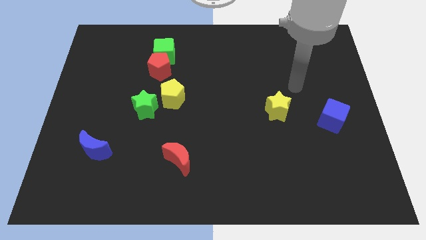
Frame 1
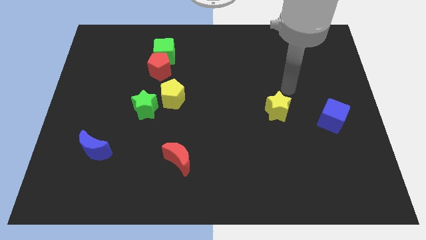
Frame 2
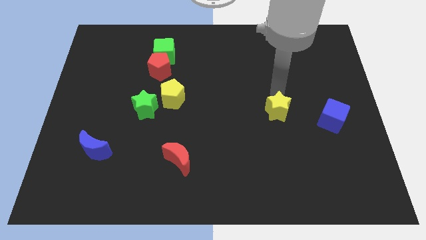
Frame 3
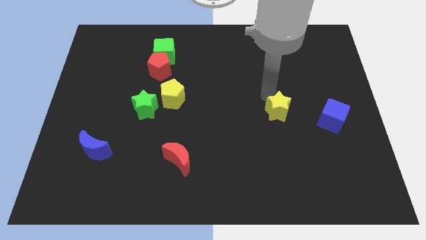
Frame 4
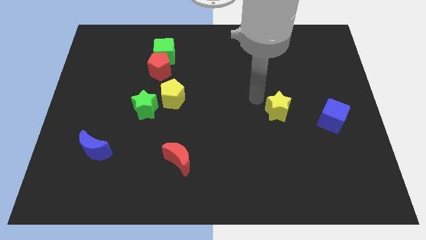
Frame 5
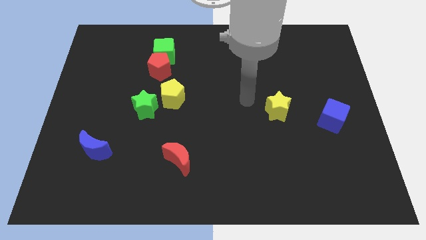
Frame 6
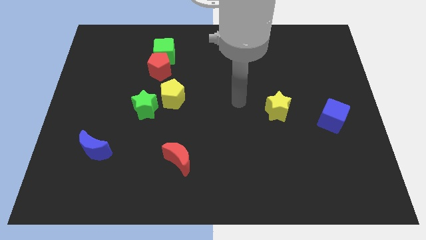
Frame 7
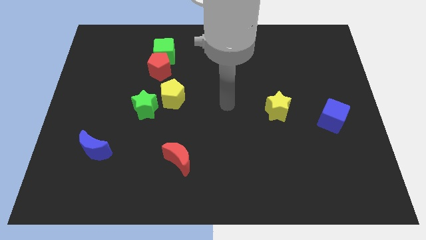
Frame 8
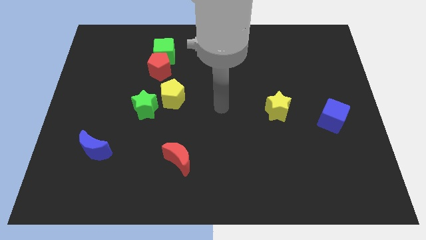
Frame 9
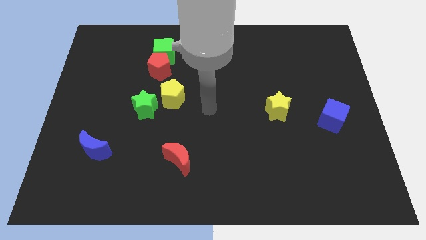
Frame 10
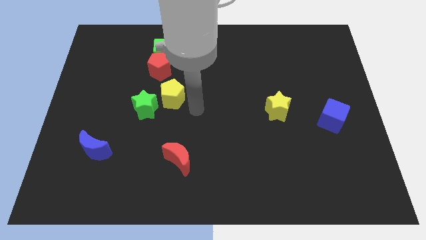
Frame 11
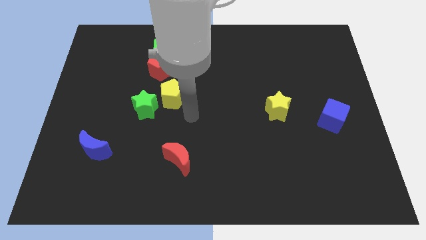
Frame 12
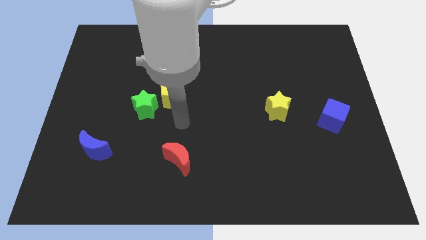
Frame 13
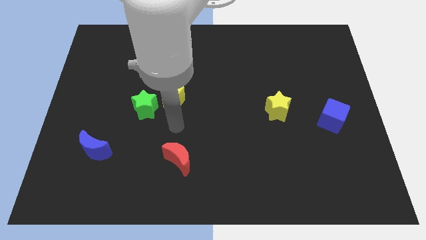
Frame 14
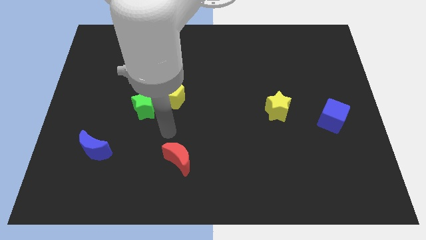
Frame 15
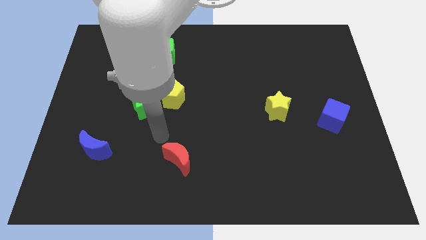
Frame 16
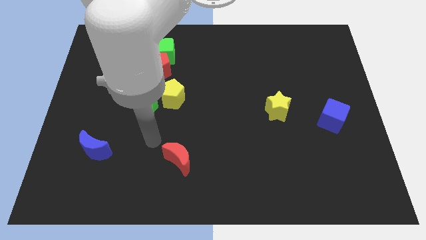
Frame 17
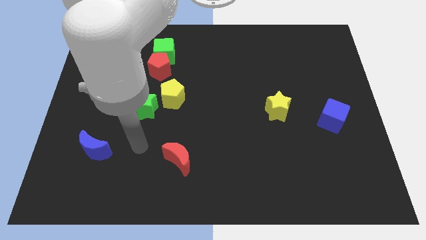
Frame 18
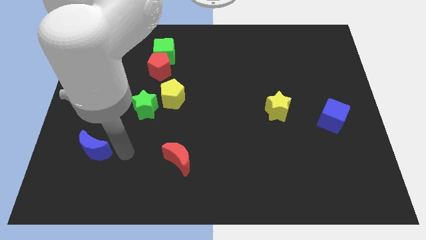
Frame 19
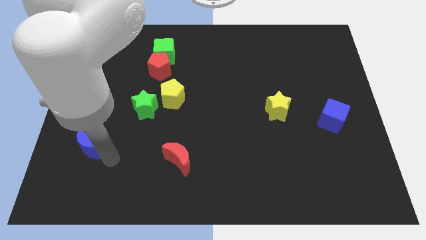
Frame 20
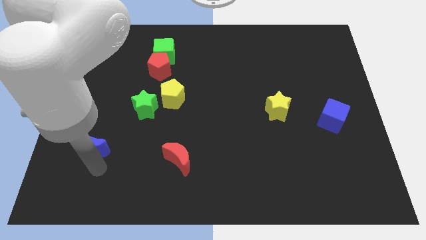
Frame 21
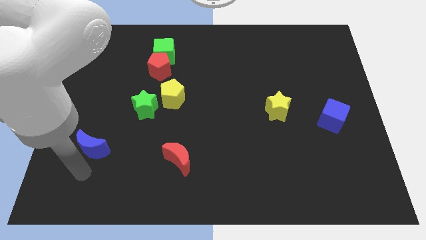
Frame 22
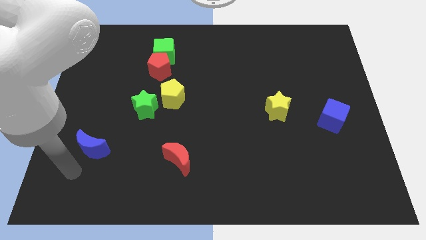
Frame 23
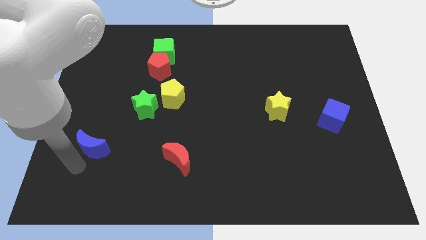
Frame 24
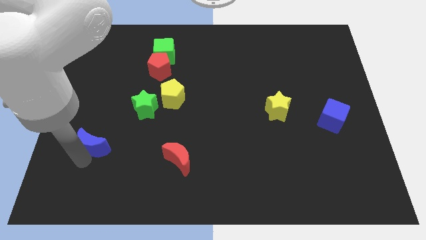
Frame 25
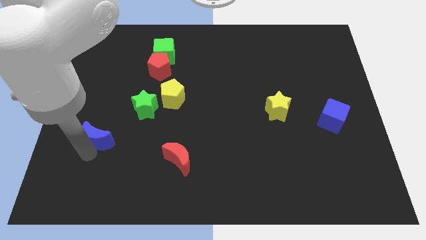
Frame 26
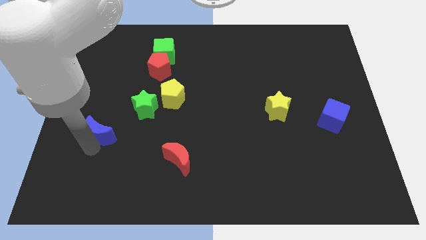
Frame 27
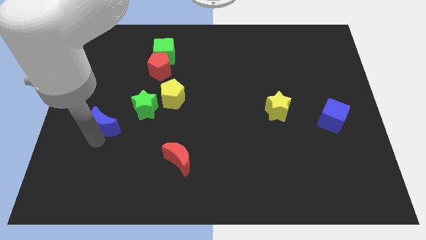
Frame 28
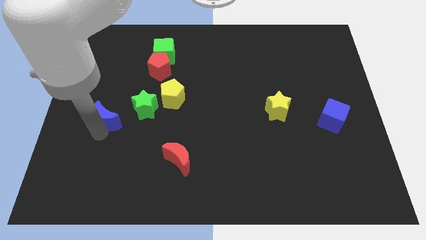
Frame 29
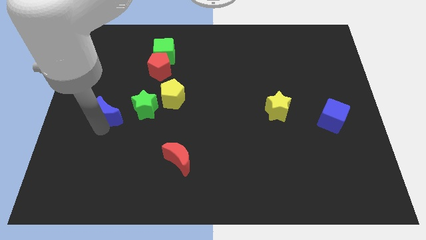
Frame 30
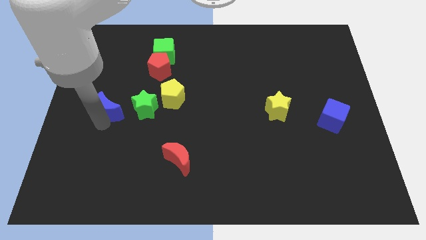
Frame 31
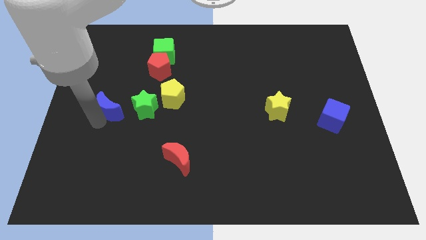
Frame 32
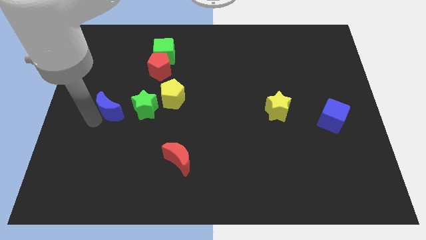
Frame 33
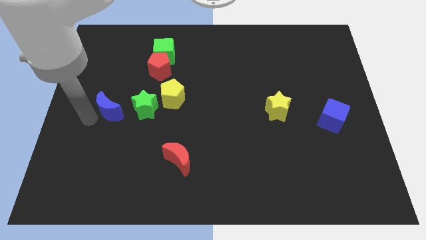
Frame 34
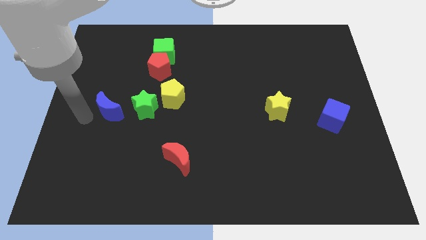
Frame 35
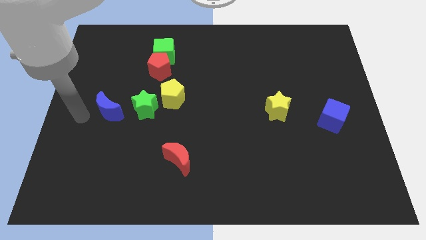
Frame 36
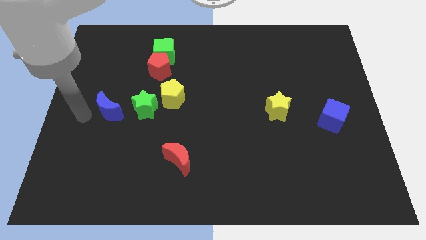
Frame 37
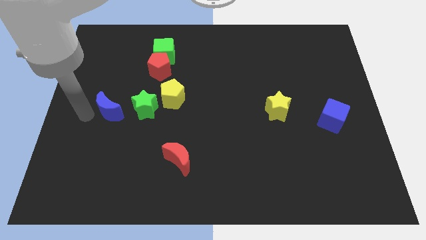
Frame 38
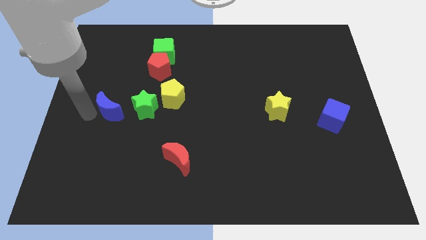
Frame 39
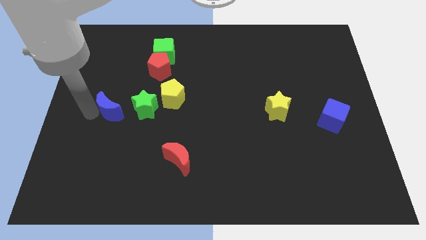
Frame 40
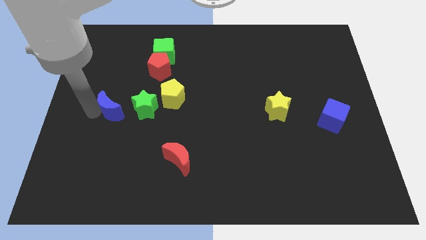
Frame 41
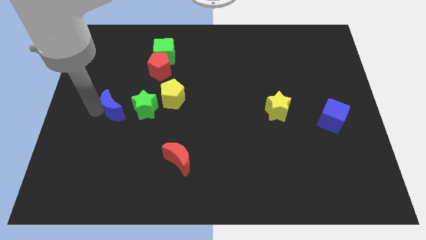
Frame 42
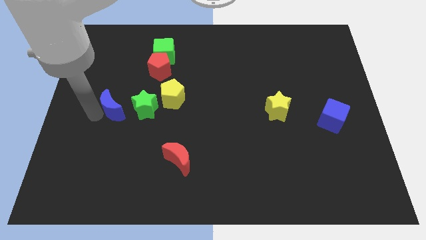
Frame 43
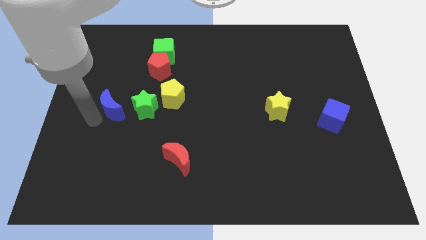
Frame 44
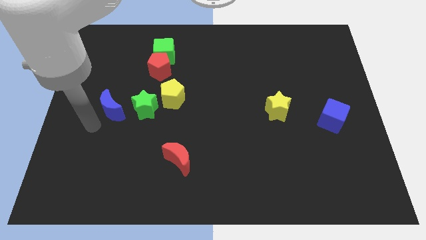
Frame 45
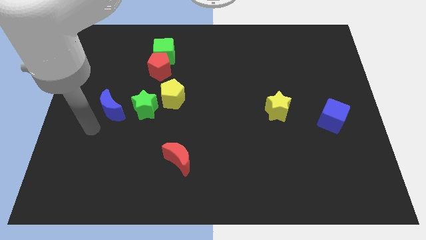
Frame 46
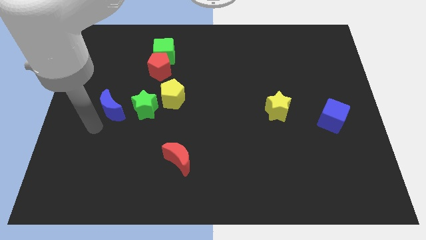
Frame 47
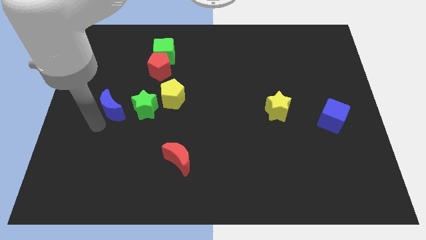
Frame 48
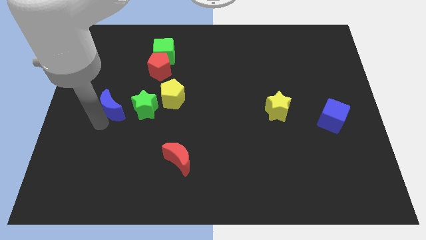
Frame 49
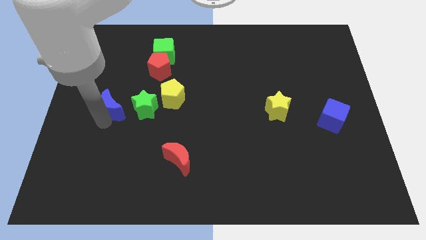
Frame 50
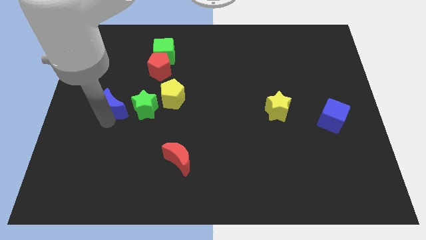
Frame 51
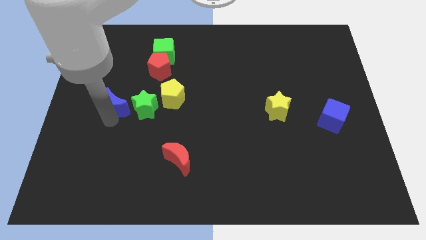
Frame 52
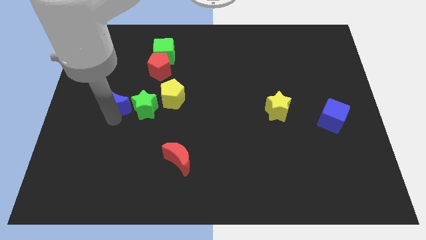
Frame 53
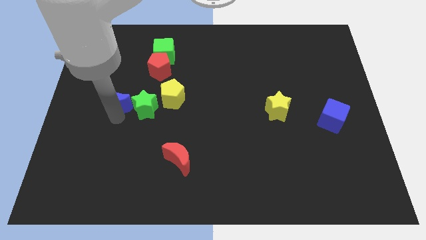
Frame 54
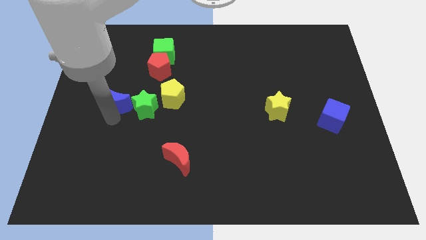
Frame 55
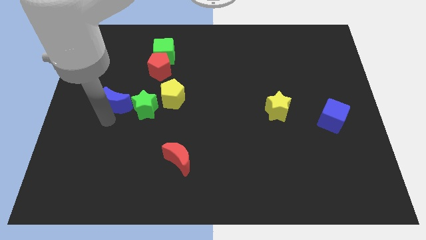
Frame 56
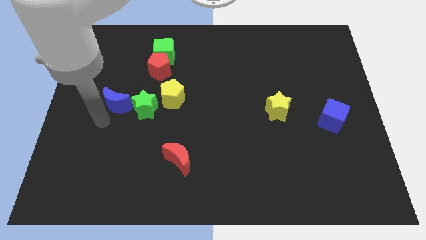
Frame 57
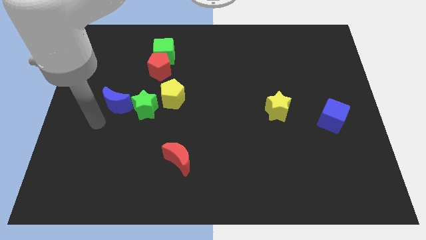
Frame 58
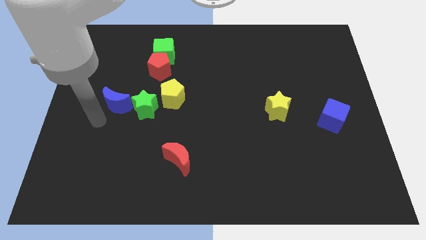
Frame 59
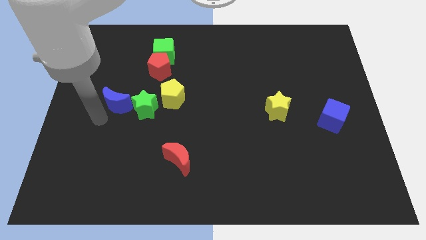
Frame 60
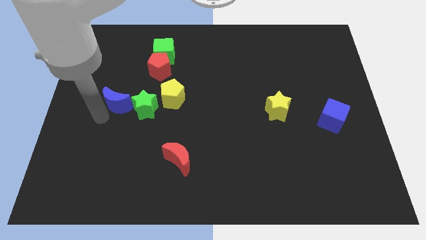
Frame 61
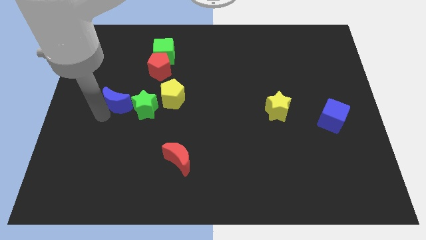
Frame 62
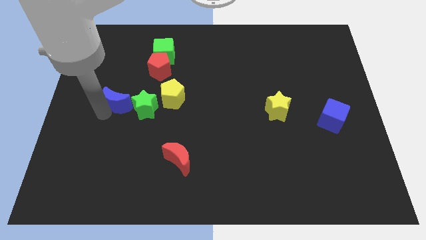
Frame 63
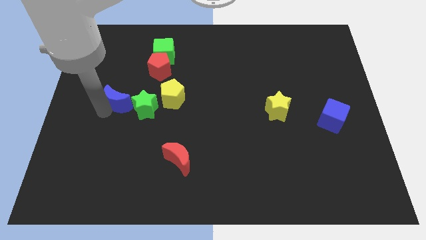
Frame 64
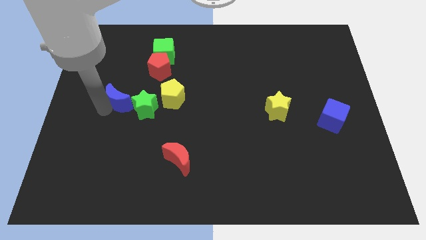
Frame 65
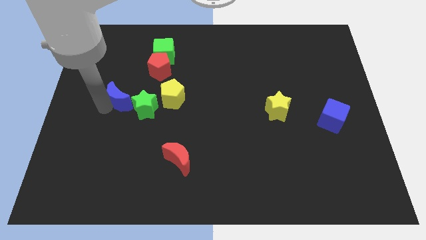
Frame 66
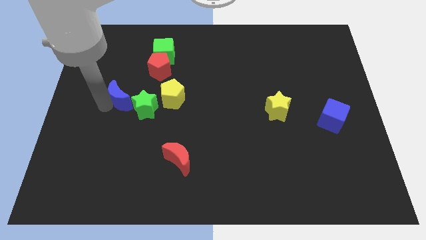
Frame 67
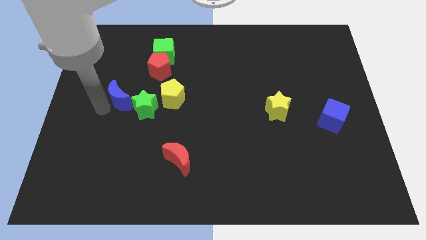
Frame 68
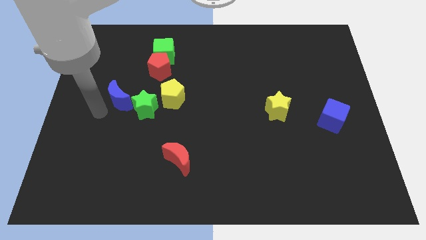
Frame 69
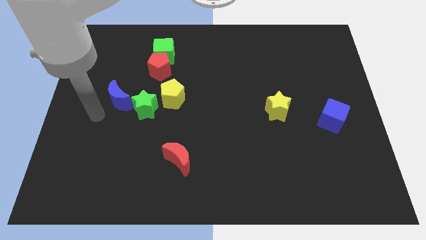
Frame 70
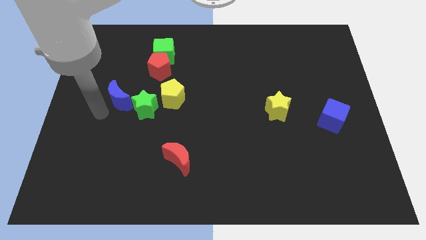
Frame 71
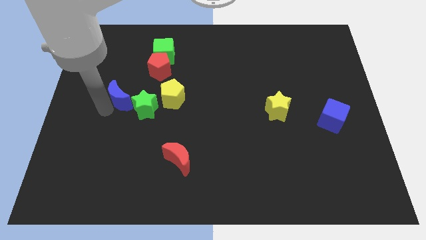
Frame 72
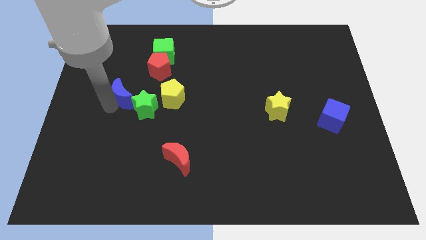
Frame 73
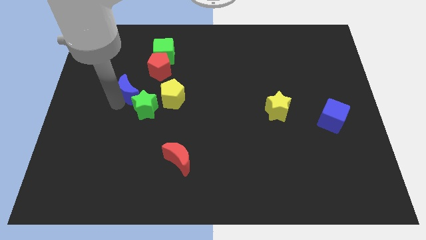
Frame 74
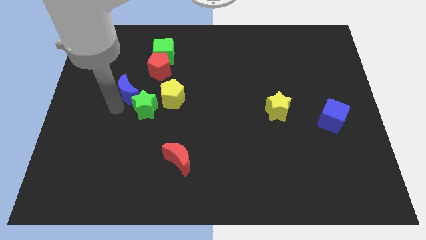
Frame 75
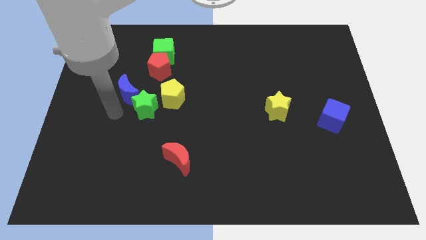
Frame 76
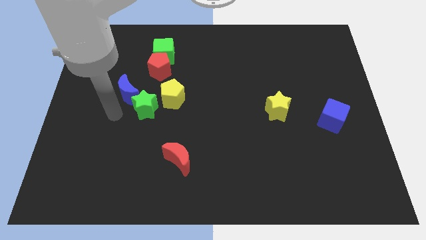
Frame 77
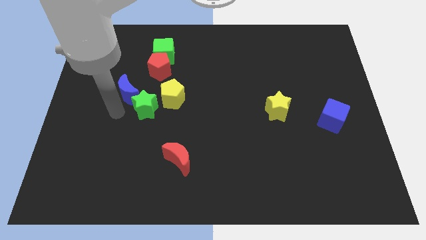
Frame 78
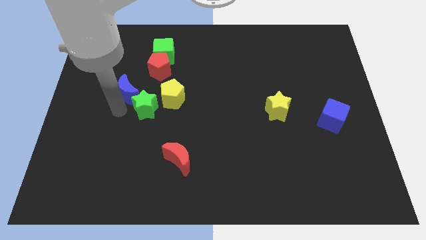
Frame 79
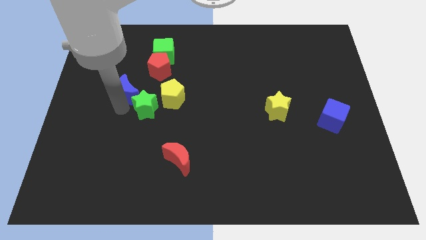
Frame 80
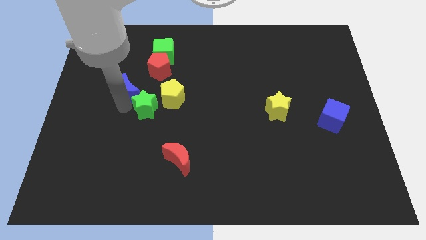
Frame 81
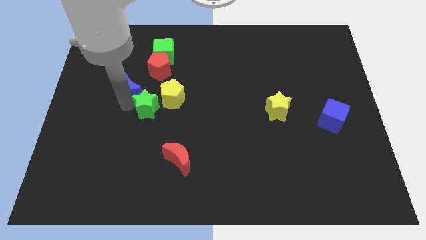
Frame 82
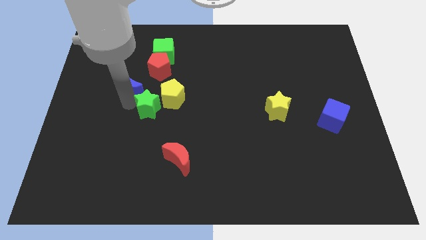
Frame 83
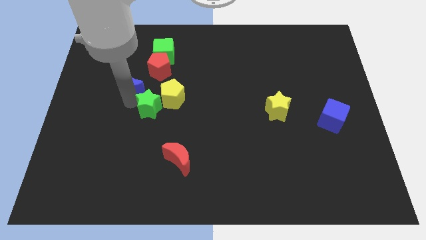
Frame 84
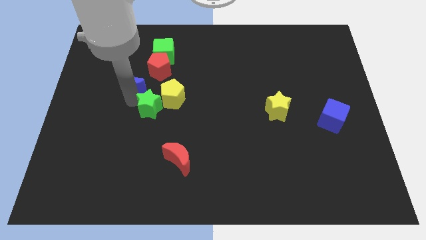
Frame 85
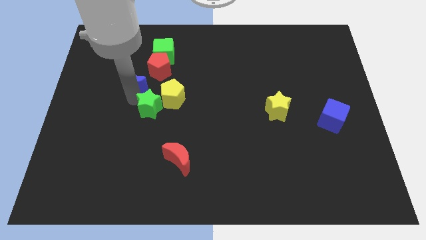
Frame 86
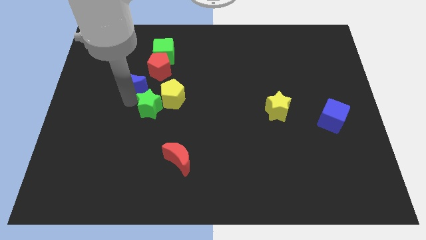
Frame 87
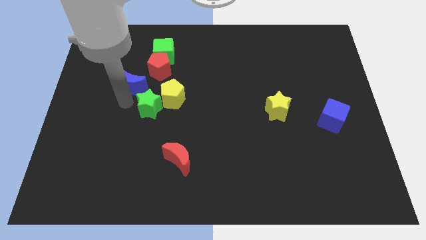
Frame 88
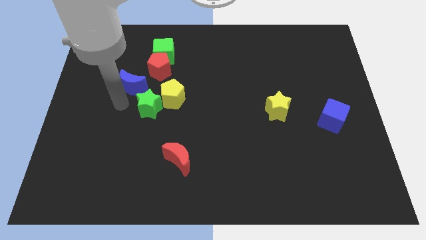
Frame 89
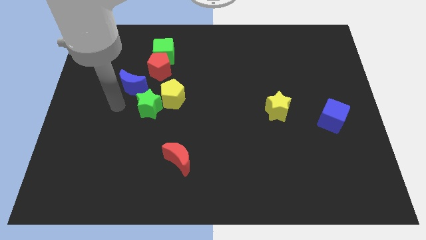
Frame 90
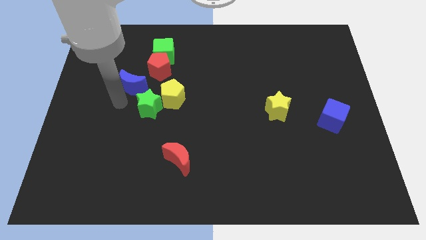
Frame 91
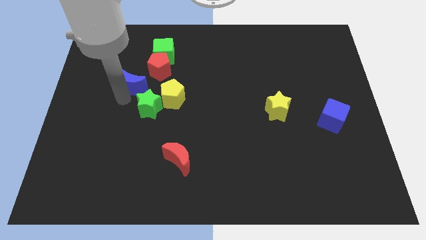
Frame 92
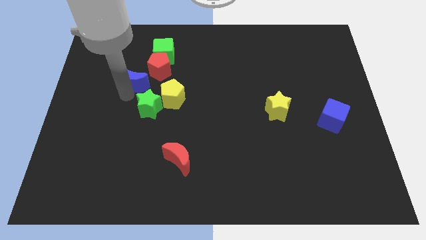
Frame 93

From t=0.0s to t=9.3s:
push the blue moon to the bottom left side of the green cube
